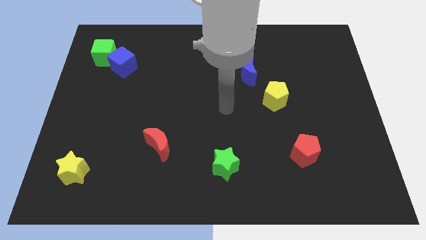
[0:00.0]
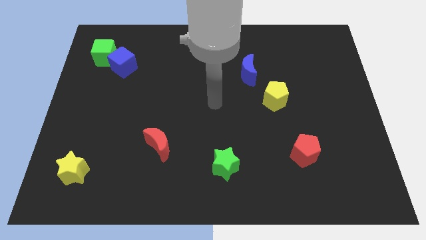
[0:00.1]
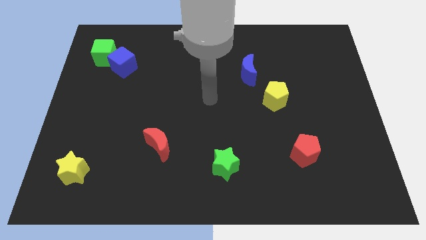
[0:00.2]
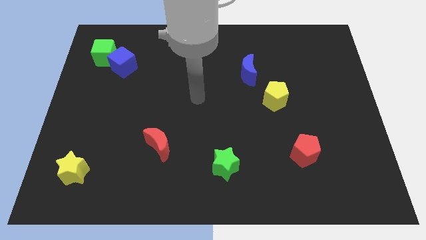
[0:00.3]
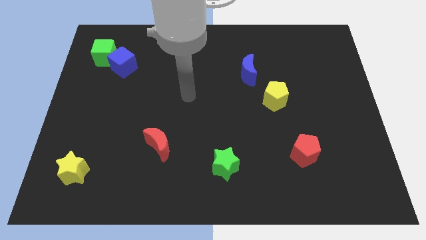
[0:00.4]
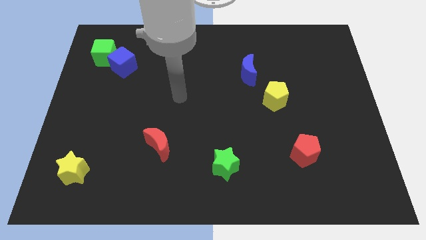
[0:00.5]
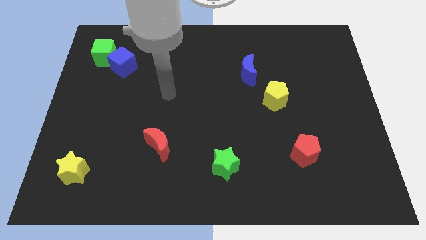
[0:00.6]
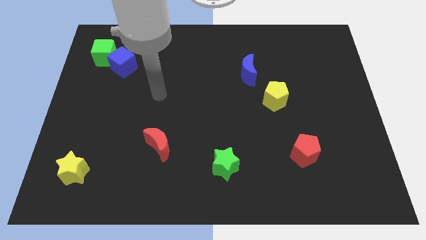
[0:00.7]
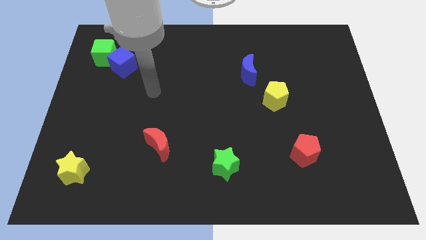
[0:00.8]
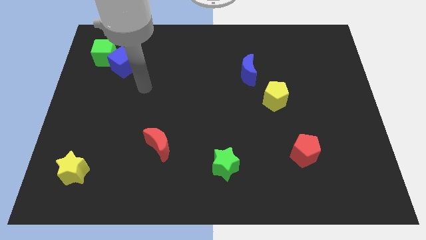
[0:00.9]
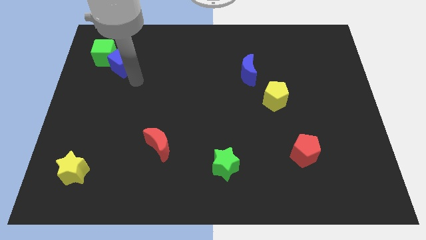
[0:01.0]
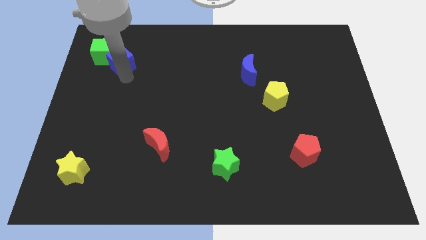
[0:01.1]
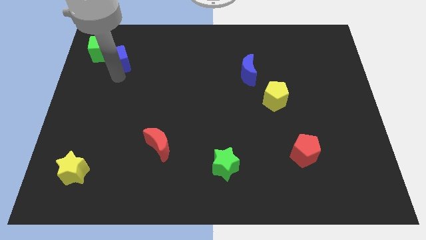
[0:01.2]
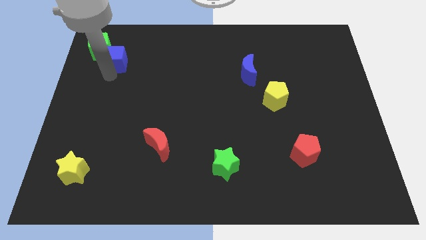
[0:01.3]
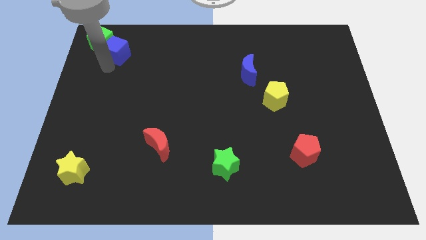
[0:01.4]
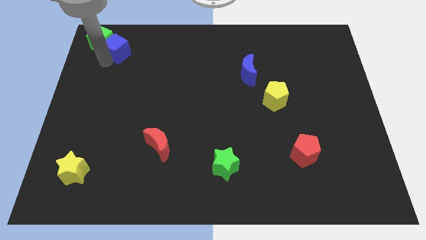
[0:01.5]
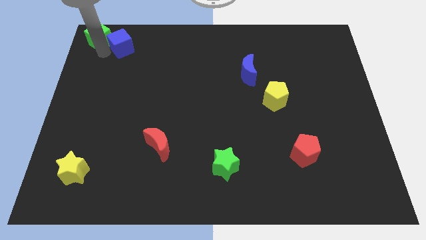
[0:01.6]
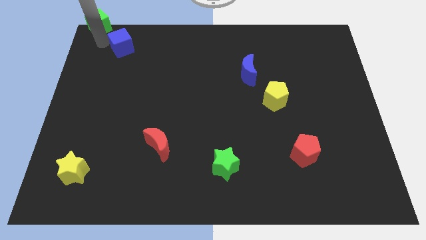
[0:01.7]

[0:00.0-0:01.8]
pull the blue cube apart from the green cube

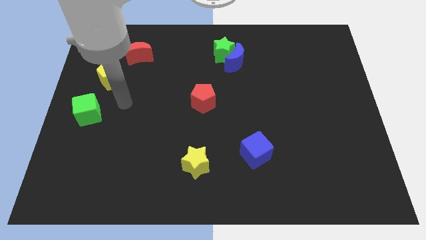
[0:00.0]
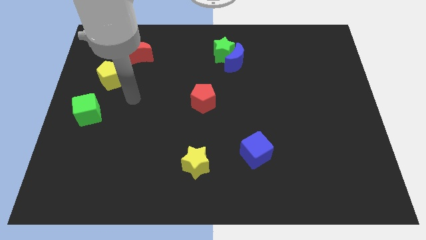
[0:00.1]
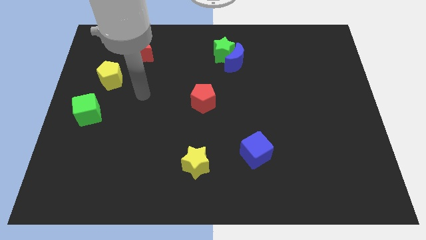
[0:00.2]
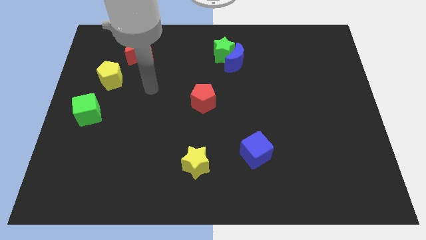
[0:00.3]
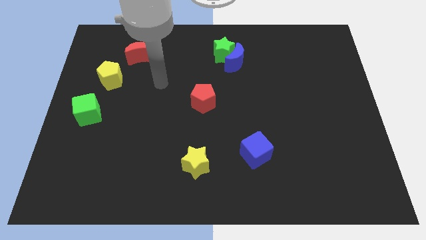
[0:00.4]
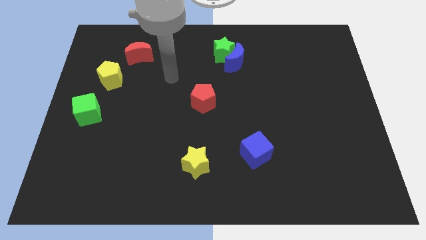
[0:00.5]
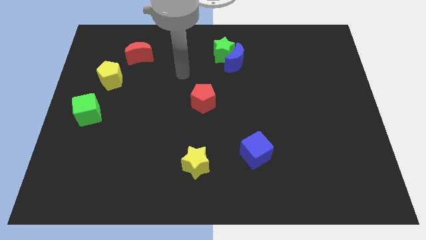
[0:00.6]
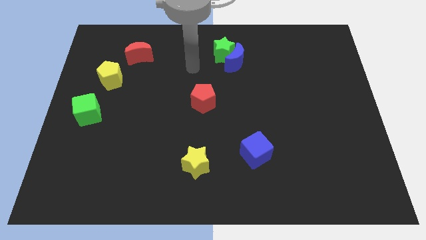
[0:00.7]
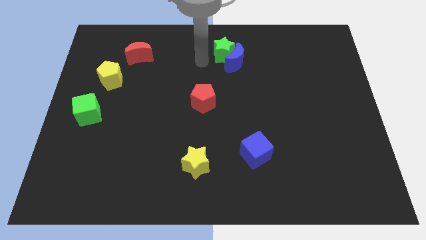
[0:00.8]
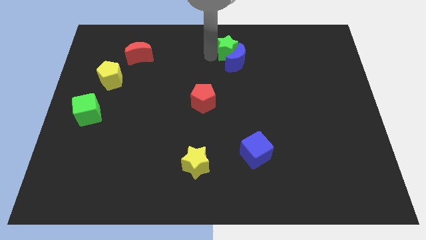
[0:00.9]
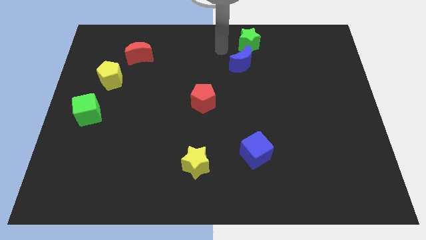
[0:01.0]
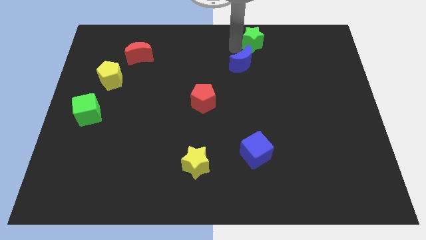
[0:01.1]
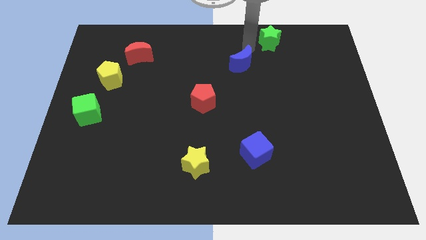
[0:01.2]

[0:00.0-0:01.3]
move the blue moon away from the green star

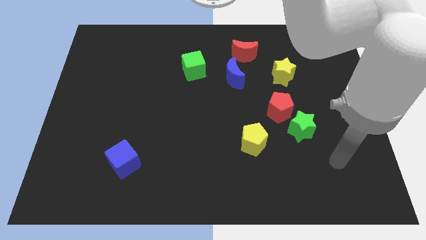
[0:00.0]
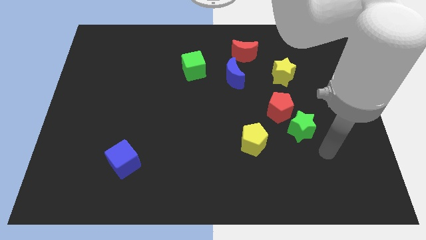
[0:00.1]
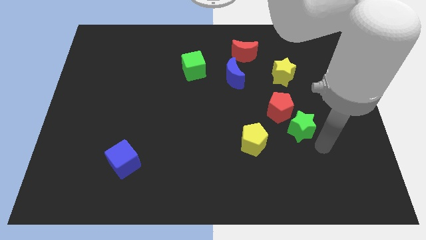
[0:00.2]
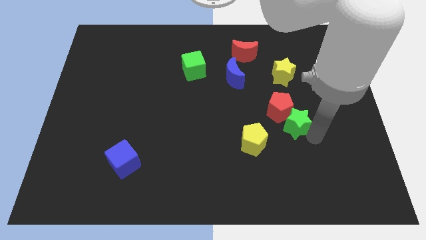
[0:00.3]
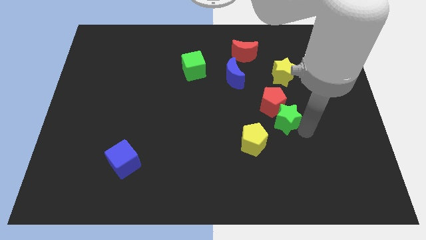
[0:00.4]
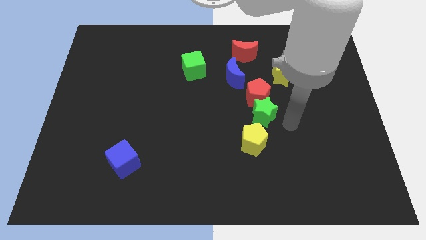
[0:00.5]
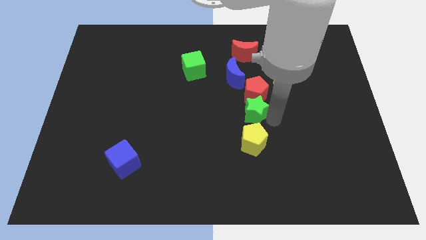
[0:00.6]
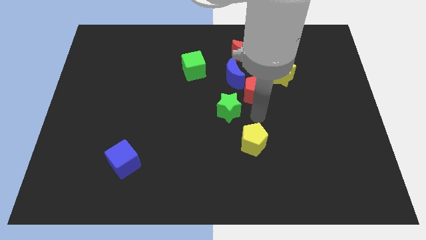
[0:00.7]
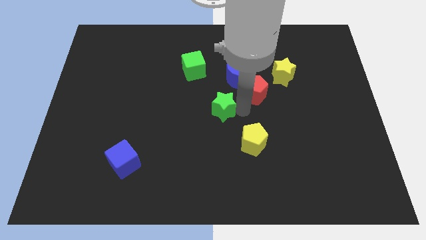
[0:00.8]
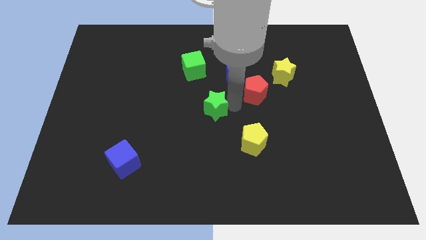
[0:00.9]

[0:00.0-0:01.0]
pull the red pentagon apart from the green star

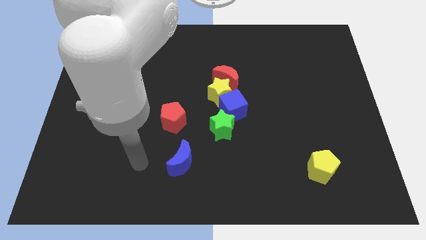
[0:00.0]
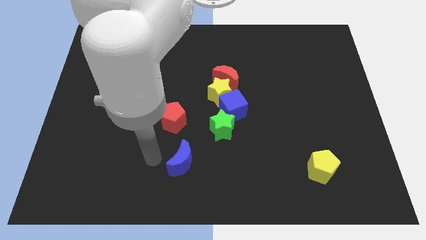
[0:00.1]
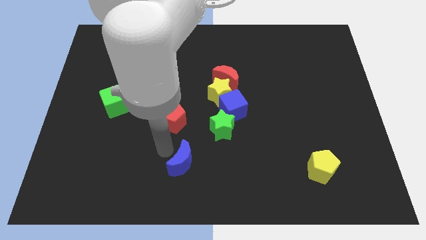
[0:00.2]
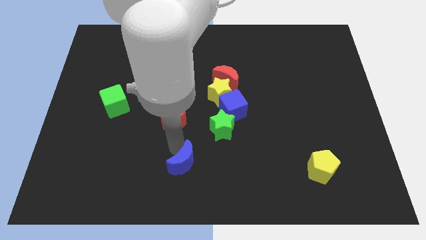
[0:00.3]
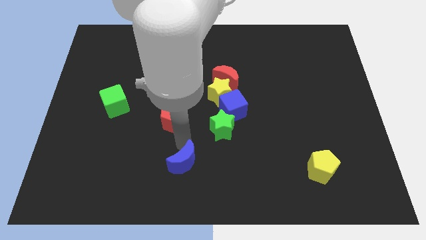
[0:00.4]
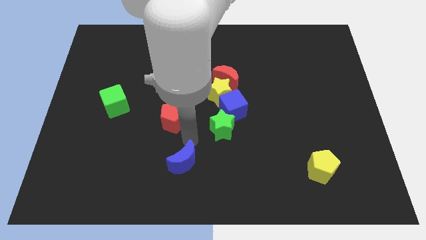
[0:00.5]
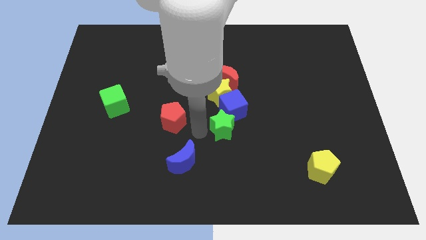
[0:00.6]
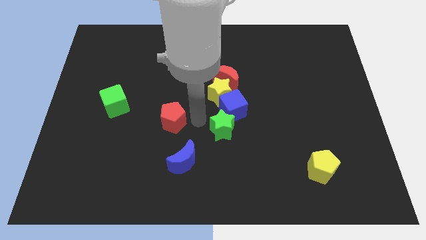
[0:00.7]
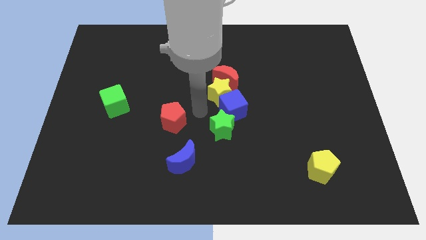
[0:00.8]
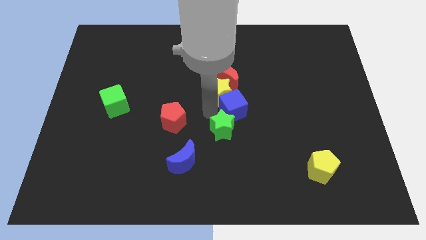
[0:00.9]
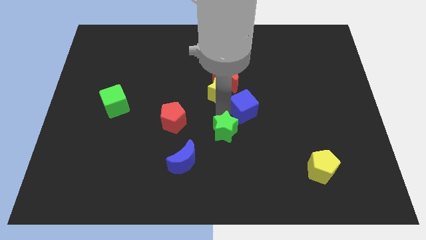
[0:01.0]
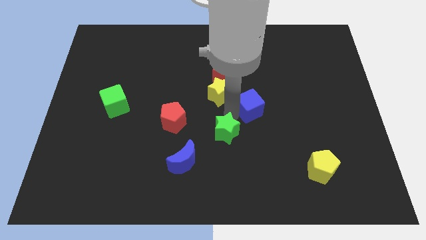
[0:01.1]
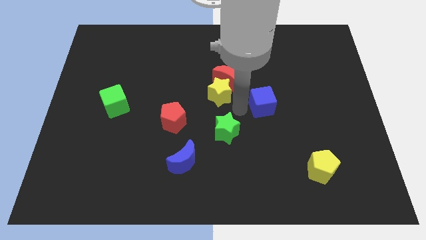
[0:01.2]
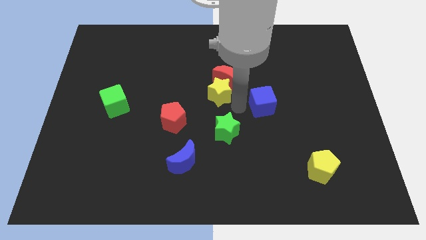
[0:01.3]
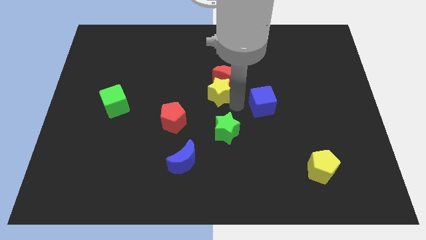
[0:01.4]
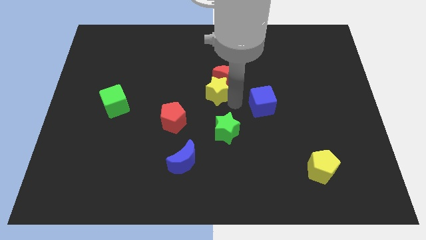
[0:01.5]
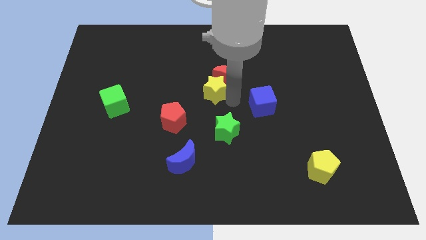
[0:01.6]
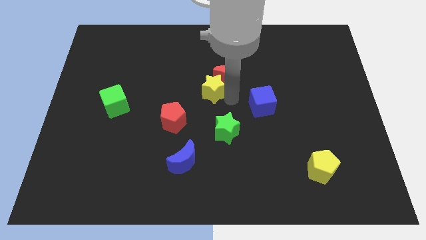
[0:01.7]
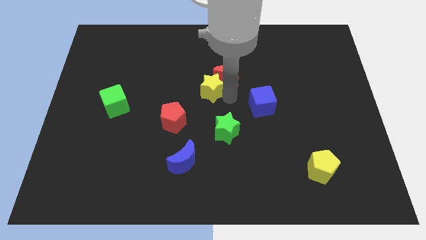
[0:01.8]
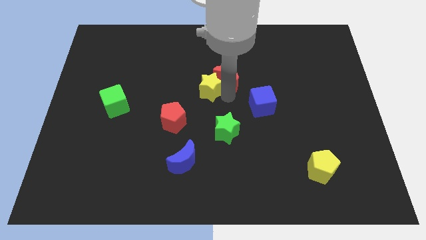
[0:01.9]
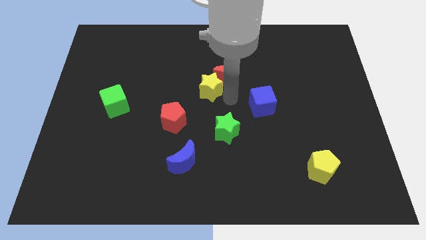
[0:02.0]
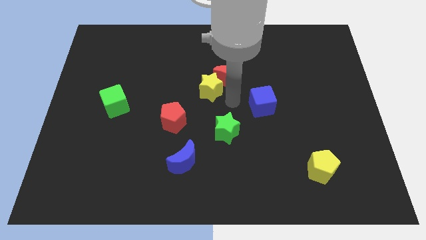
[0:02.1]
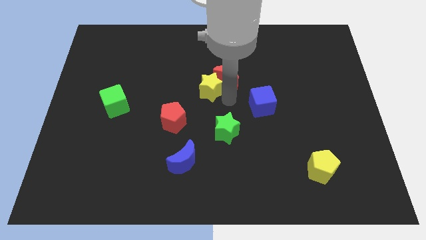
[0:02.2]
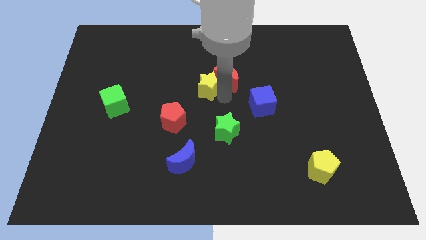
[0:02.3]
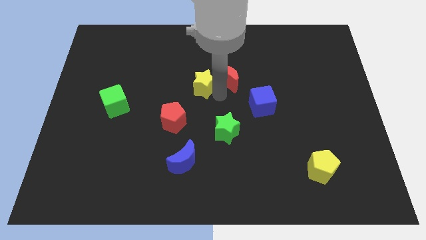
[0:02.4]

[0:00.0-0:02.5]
move the yellow star away from the red moon, blue cube, and green star

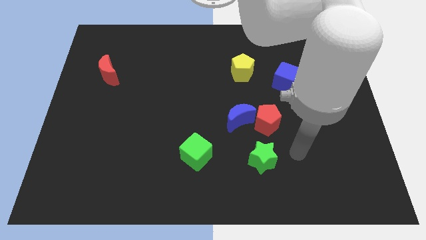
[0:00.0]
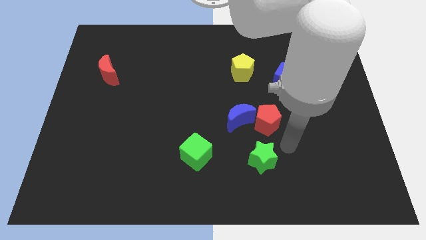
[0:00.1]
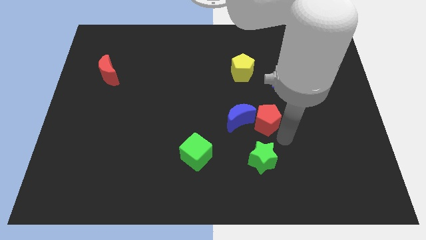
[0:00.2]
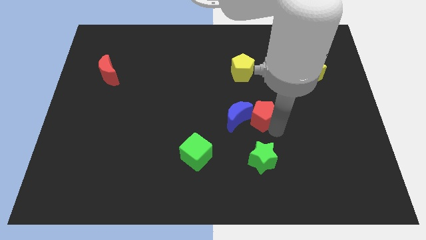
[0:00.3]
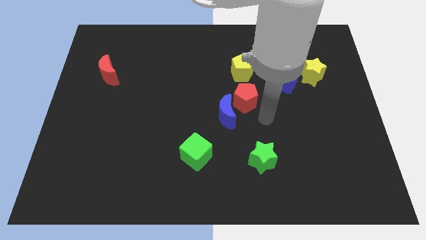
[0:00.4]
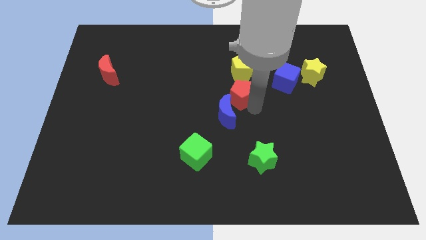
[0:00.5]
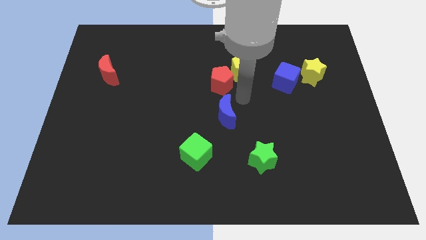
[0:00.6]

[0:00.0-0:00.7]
pull the blue moon apart from the red pentagon

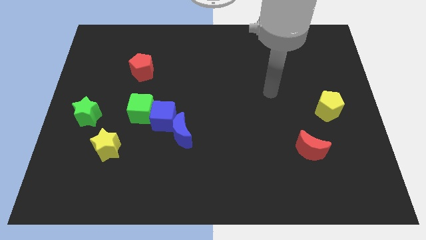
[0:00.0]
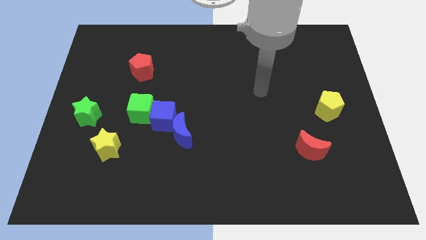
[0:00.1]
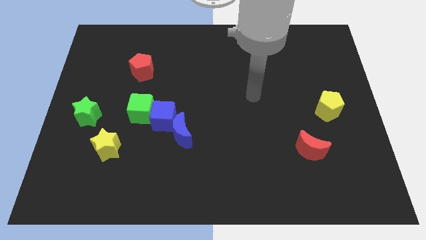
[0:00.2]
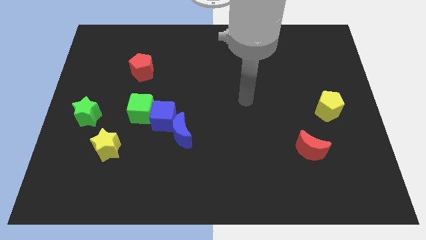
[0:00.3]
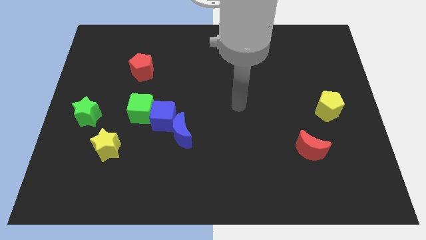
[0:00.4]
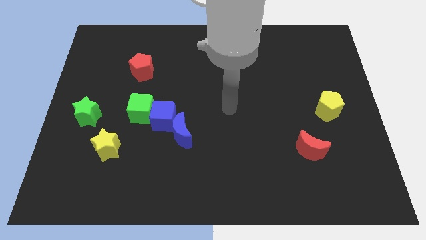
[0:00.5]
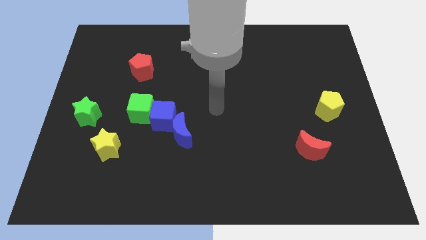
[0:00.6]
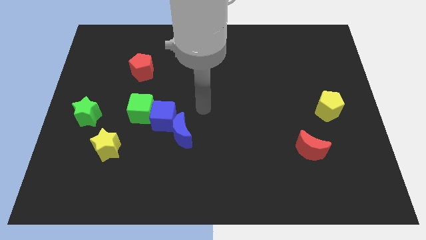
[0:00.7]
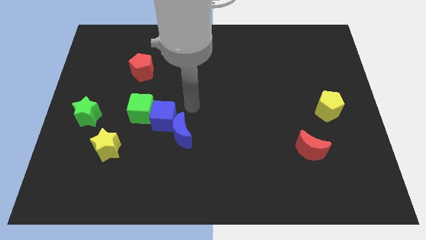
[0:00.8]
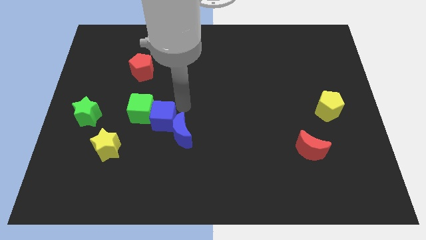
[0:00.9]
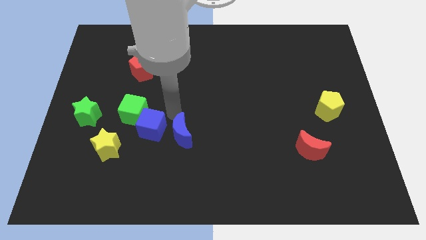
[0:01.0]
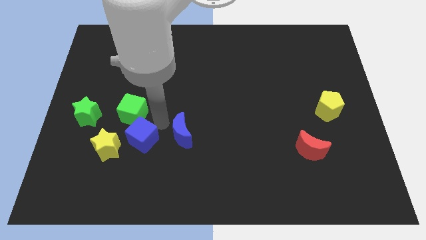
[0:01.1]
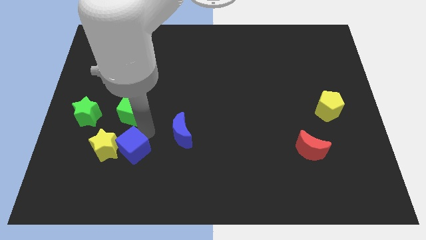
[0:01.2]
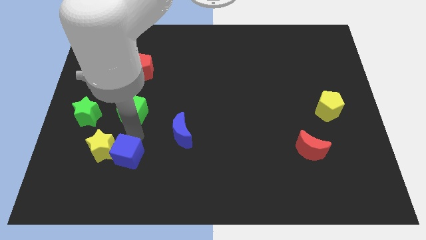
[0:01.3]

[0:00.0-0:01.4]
separate the green cube from the blue cube

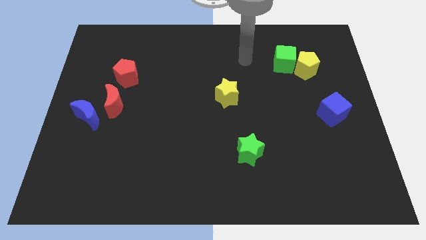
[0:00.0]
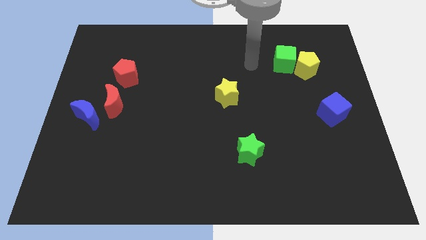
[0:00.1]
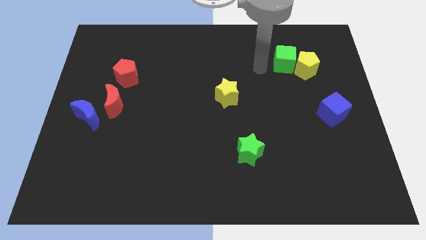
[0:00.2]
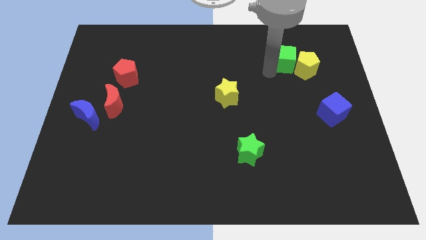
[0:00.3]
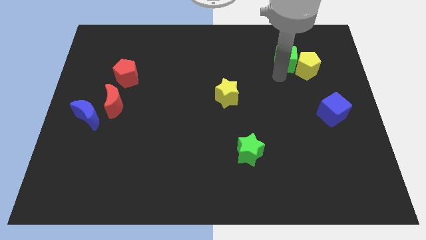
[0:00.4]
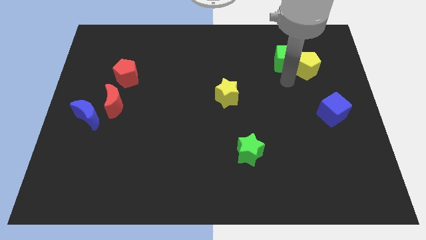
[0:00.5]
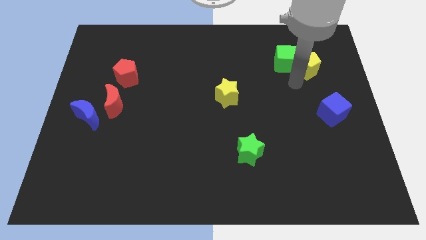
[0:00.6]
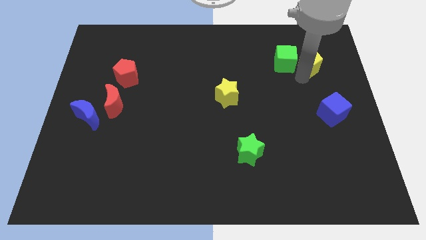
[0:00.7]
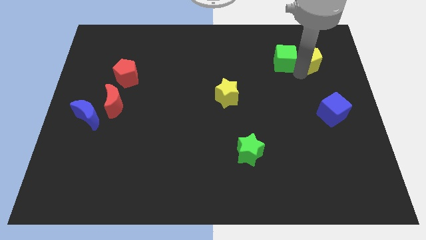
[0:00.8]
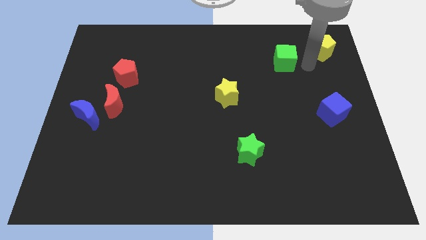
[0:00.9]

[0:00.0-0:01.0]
move the green cube away from the yellow pentagon
